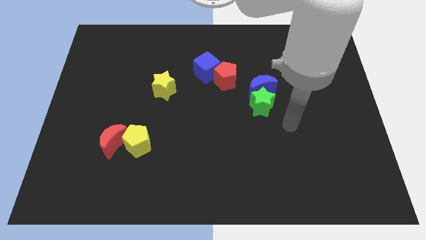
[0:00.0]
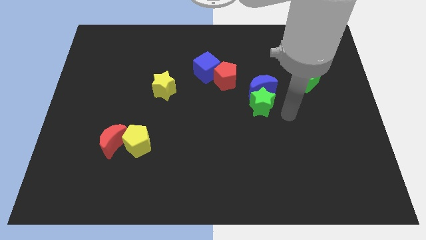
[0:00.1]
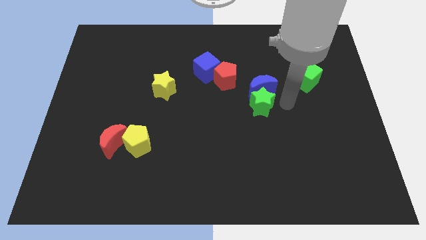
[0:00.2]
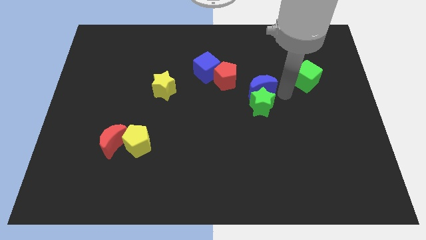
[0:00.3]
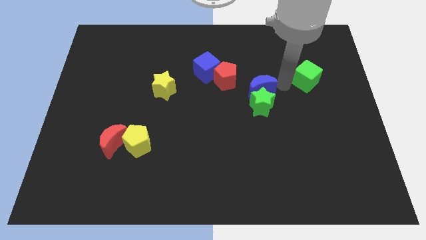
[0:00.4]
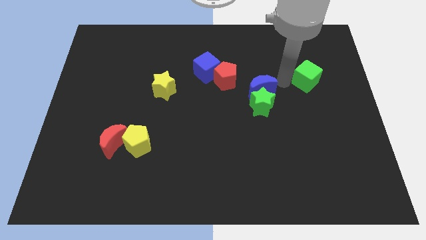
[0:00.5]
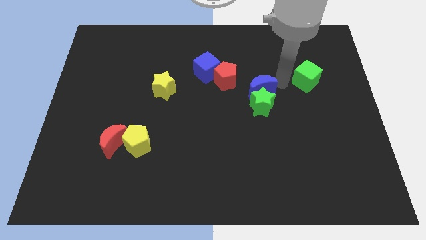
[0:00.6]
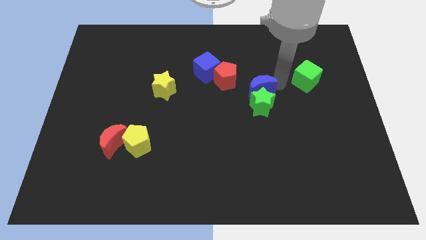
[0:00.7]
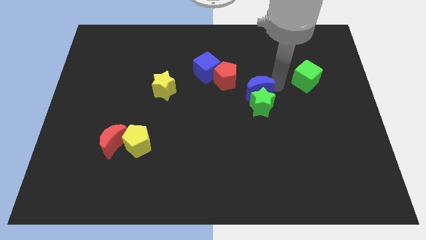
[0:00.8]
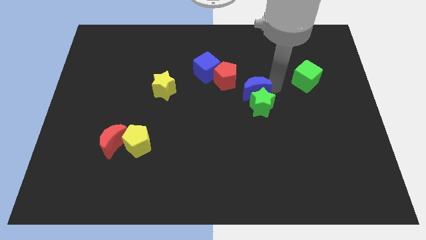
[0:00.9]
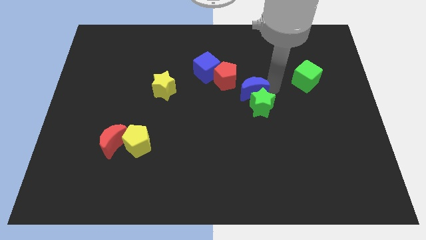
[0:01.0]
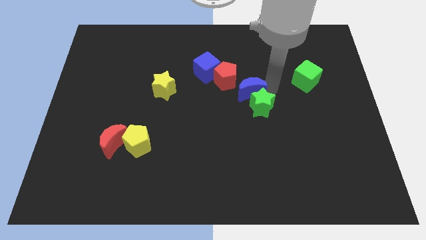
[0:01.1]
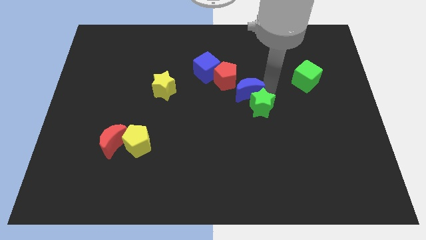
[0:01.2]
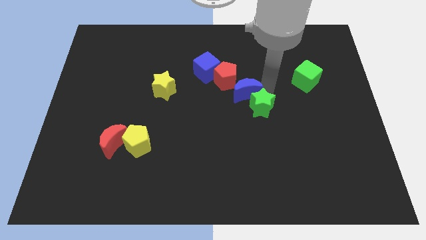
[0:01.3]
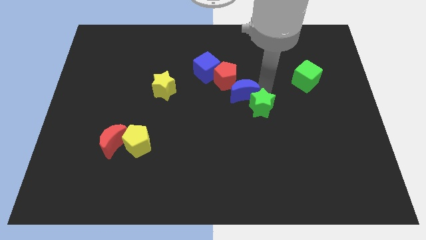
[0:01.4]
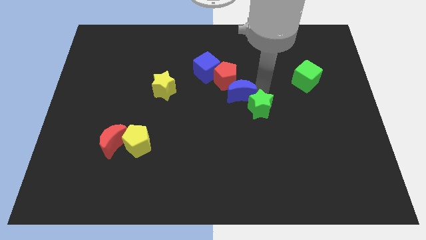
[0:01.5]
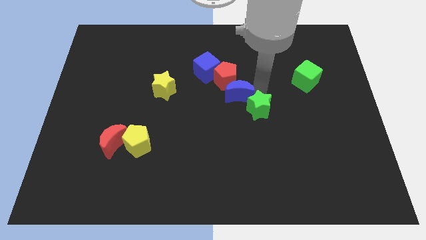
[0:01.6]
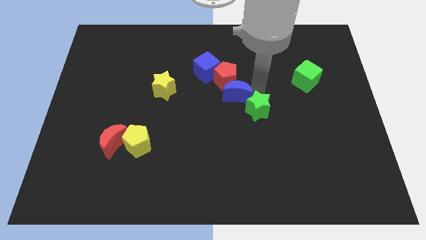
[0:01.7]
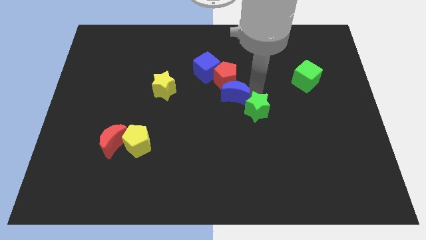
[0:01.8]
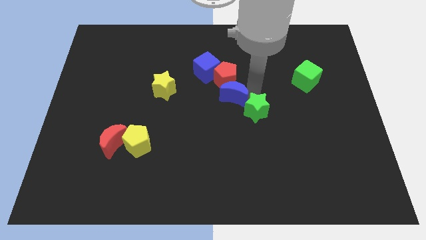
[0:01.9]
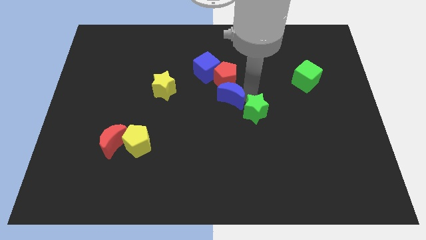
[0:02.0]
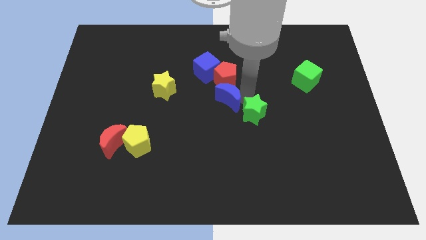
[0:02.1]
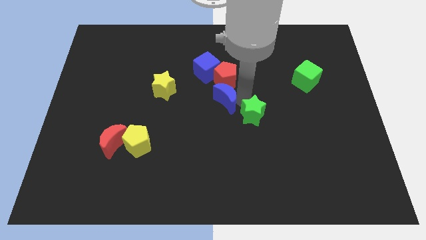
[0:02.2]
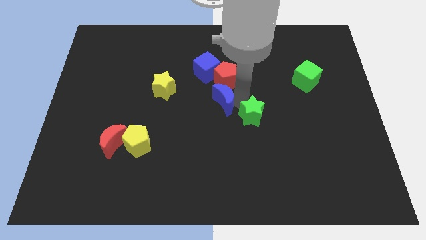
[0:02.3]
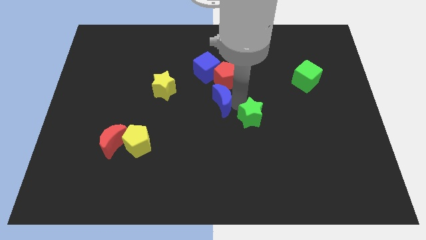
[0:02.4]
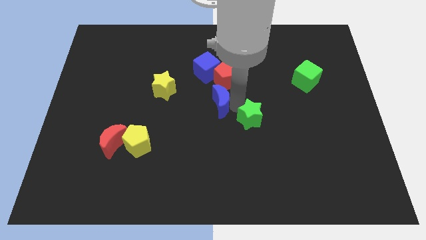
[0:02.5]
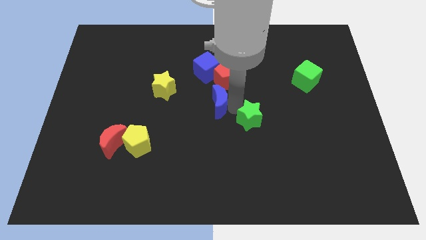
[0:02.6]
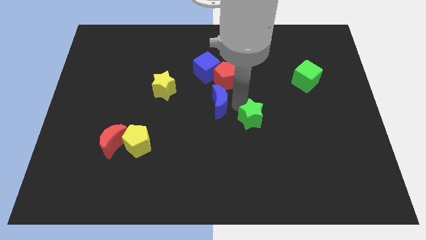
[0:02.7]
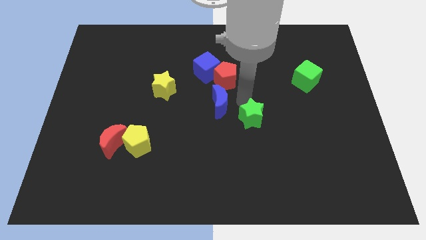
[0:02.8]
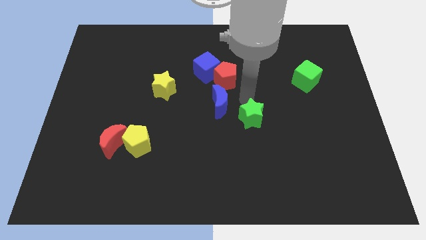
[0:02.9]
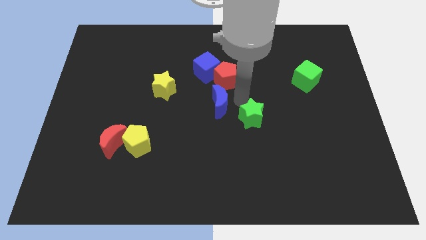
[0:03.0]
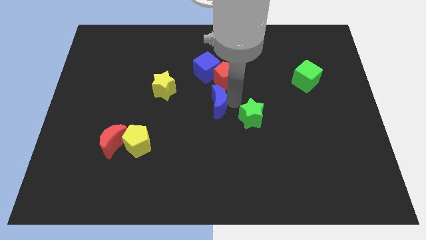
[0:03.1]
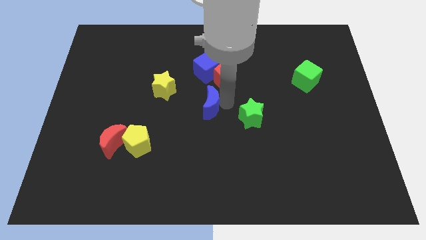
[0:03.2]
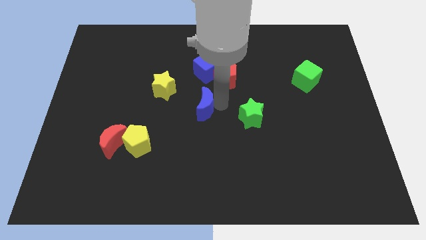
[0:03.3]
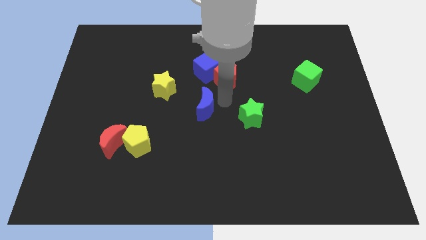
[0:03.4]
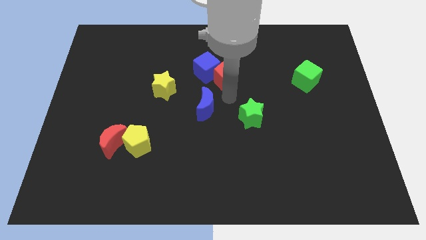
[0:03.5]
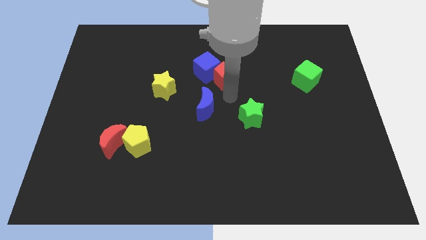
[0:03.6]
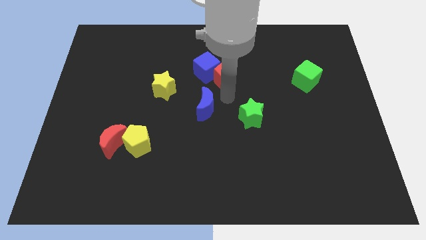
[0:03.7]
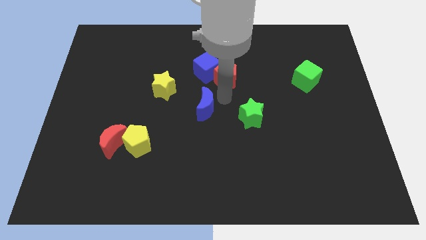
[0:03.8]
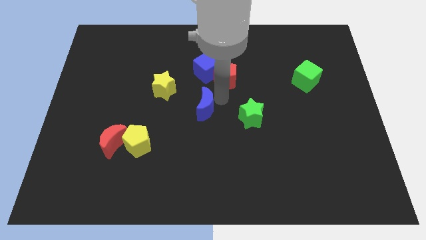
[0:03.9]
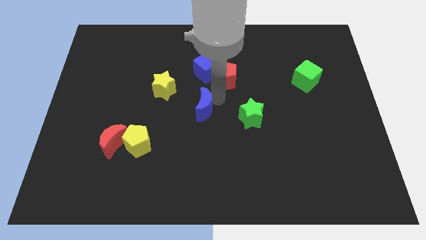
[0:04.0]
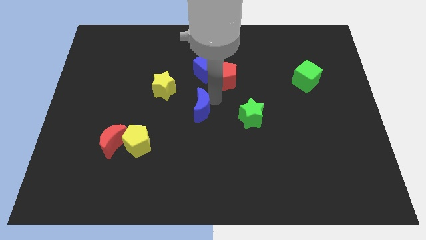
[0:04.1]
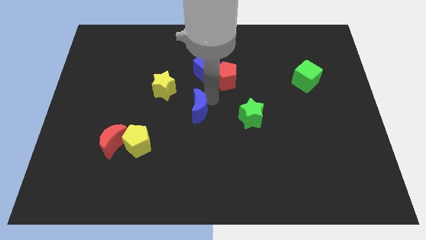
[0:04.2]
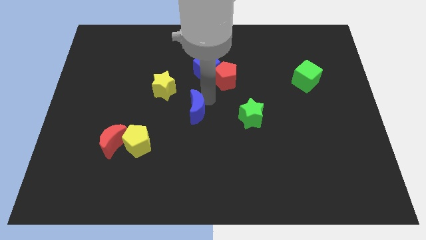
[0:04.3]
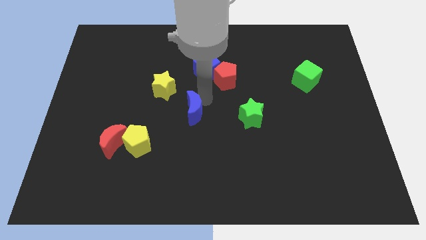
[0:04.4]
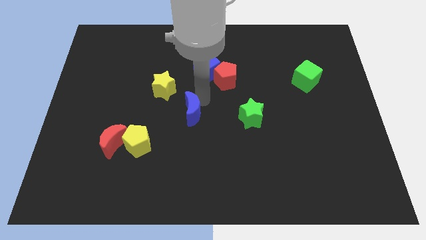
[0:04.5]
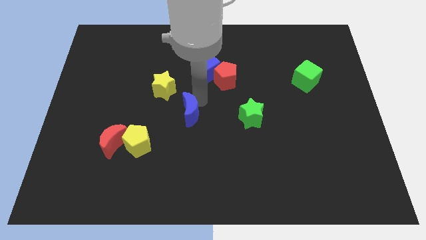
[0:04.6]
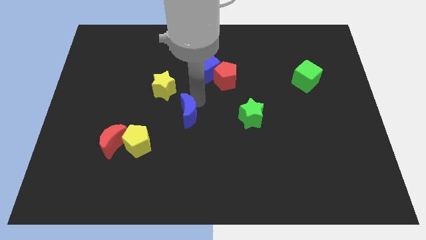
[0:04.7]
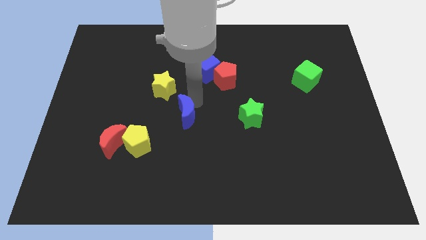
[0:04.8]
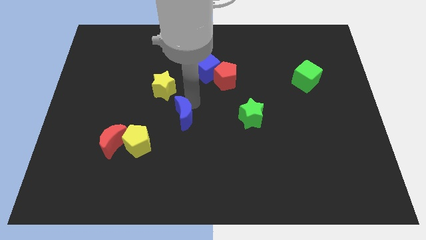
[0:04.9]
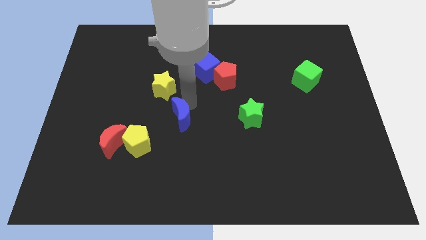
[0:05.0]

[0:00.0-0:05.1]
push the blue moon to the bottom side of the yellow star

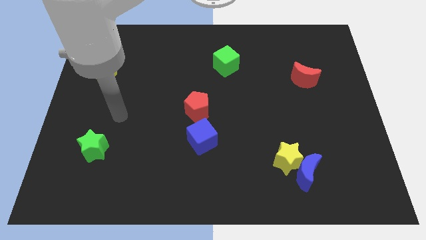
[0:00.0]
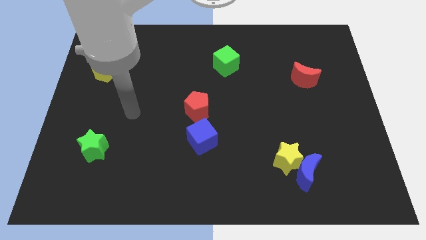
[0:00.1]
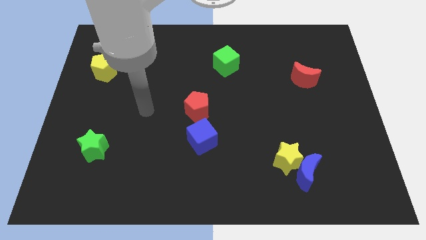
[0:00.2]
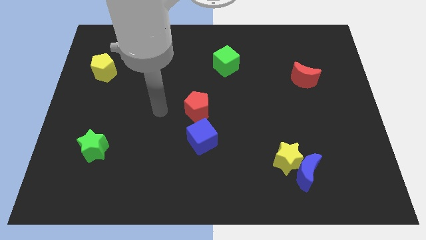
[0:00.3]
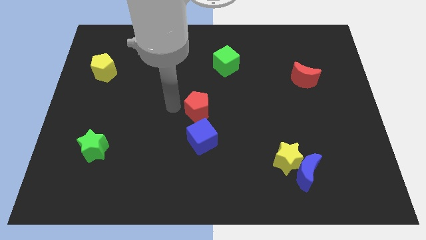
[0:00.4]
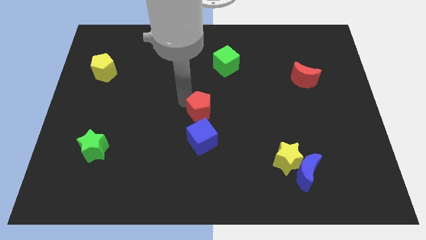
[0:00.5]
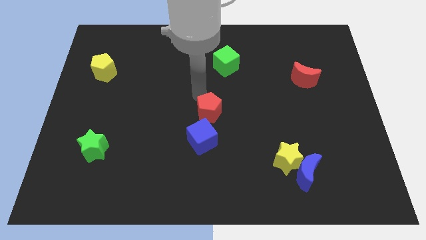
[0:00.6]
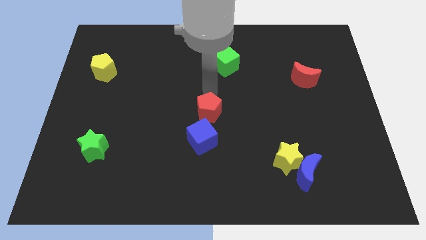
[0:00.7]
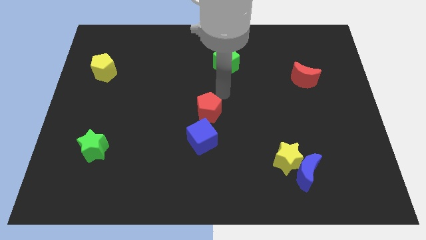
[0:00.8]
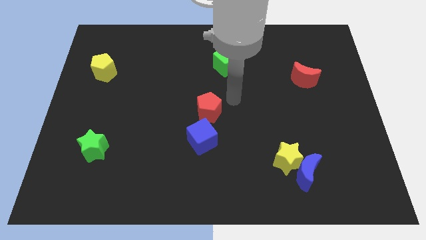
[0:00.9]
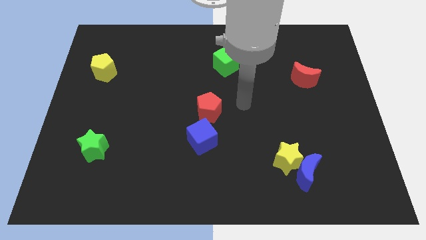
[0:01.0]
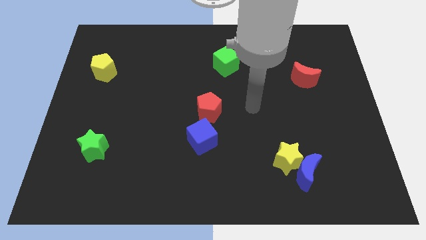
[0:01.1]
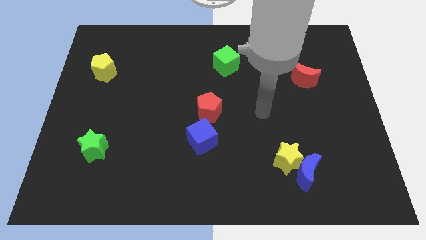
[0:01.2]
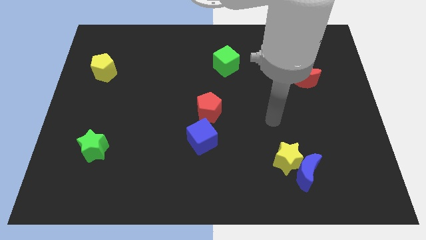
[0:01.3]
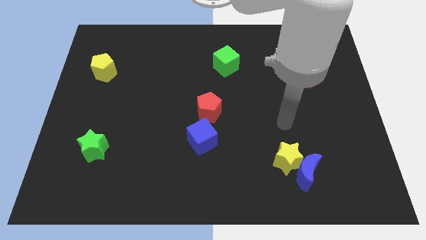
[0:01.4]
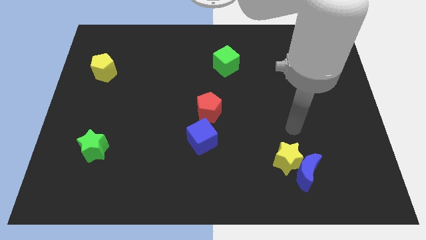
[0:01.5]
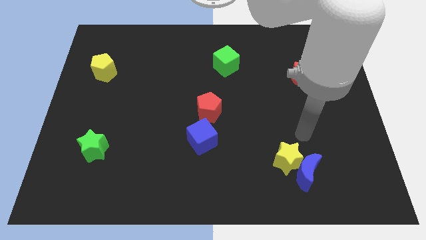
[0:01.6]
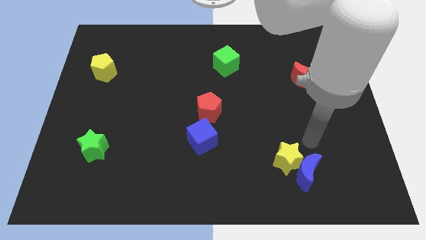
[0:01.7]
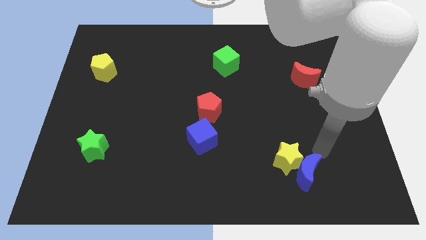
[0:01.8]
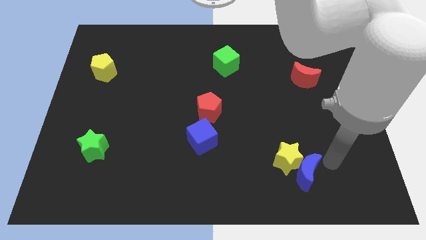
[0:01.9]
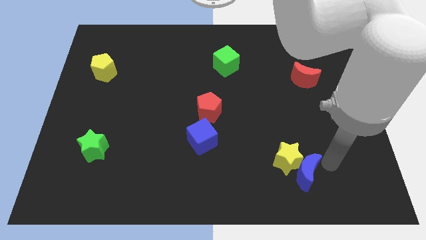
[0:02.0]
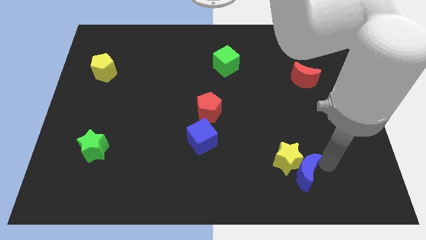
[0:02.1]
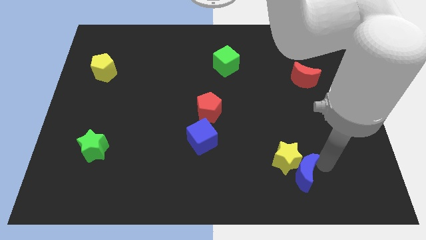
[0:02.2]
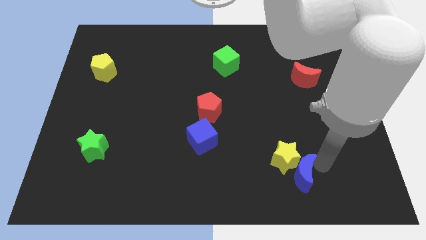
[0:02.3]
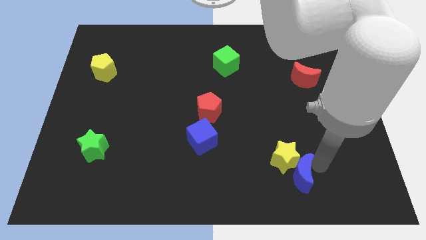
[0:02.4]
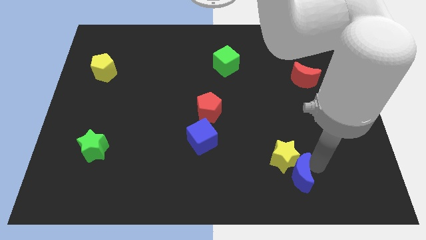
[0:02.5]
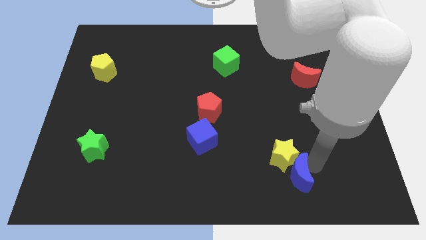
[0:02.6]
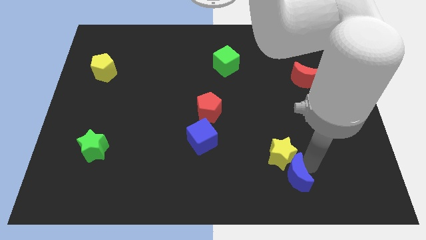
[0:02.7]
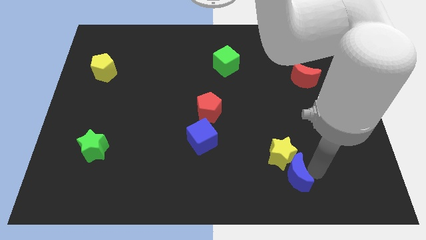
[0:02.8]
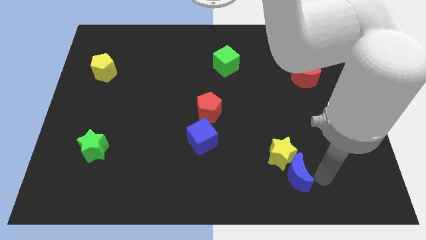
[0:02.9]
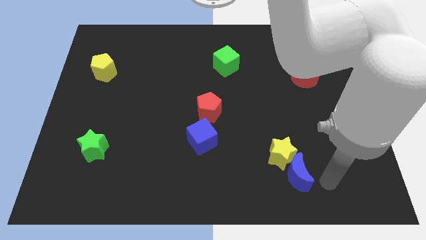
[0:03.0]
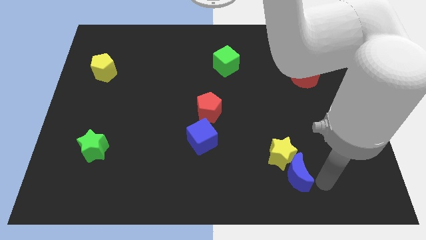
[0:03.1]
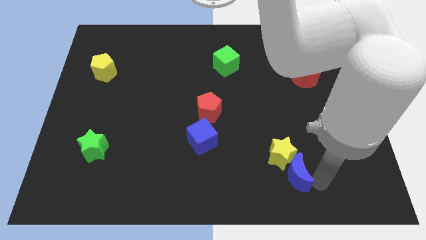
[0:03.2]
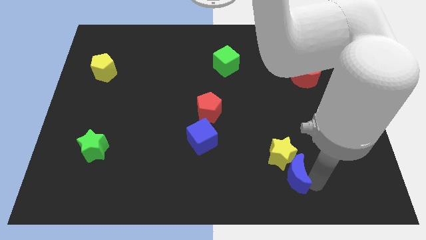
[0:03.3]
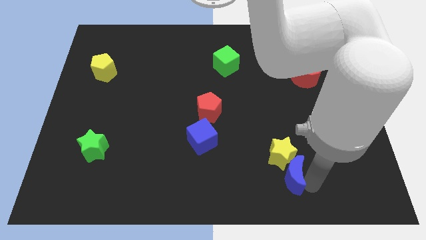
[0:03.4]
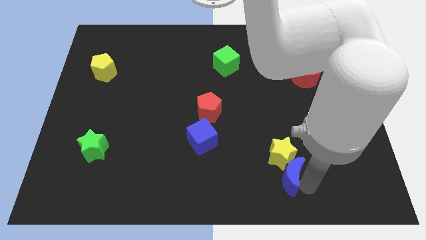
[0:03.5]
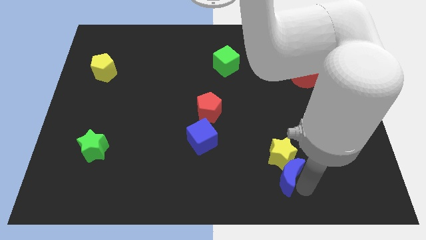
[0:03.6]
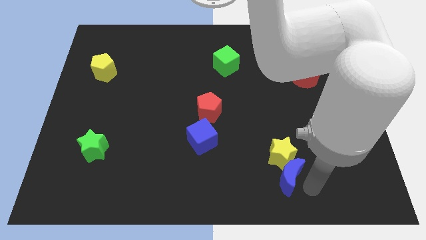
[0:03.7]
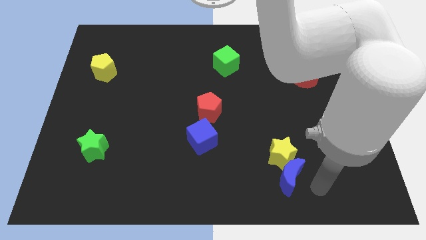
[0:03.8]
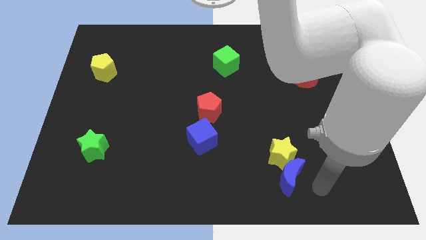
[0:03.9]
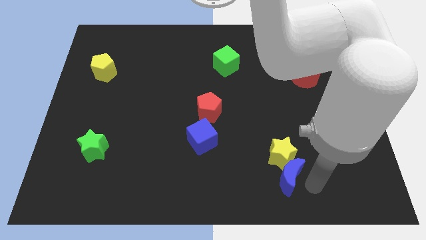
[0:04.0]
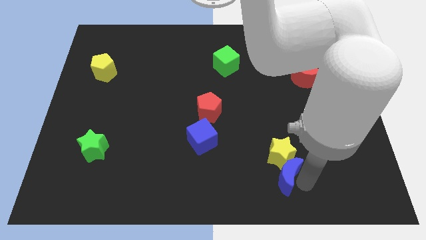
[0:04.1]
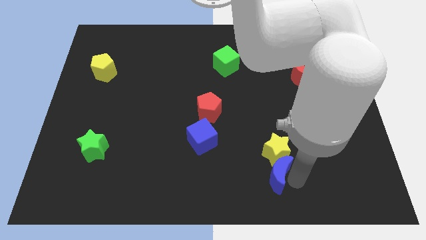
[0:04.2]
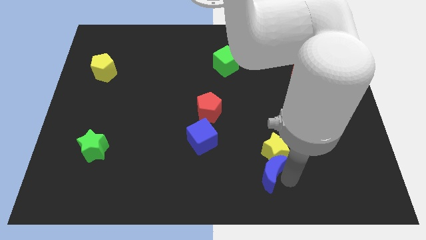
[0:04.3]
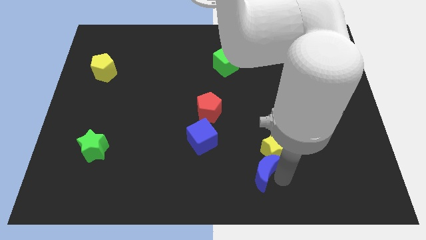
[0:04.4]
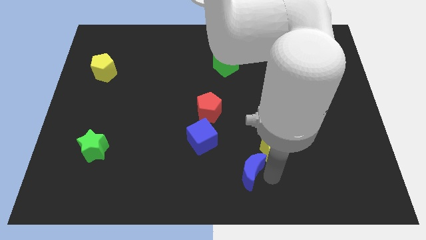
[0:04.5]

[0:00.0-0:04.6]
slide the blue moon to the bottom right of the blue cube
